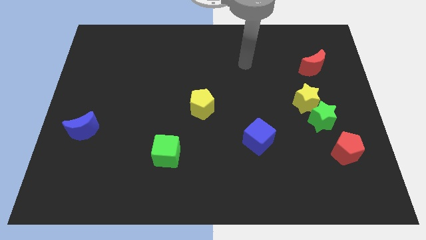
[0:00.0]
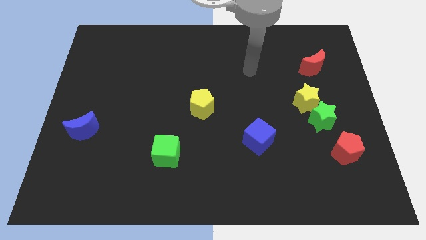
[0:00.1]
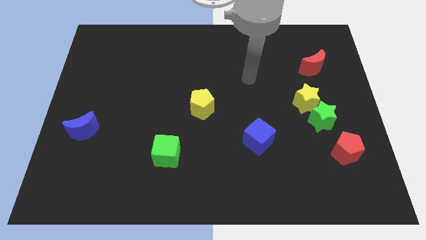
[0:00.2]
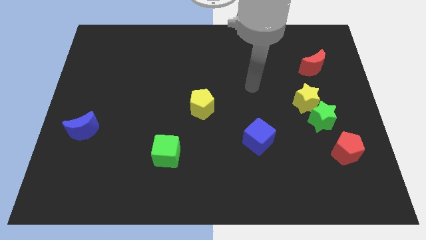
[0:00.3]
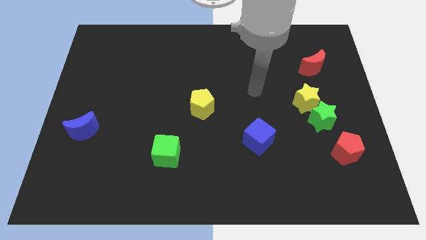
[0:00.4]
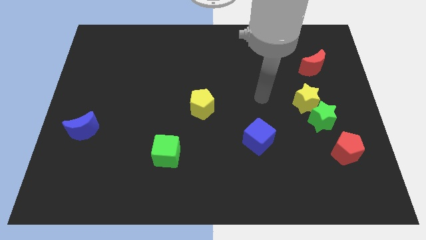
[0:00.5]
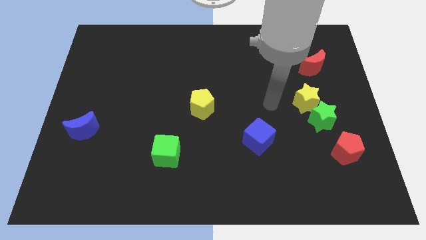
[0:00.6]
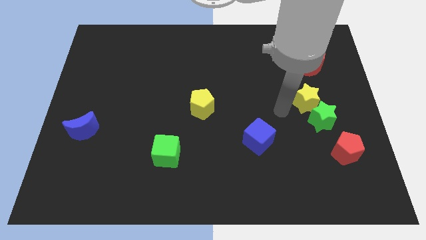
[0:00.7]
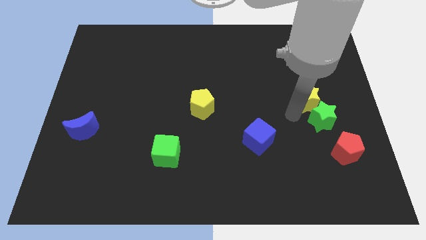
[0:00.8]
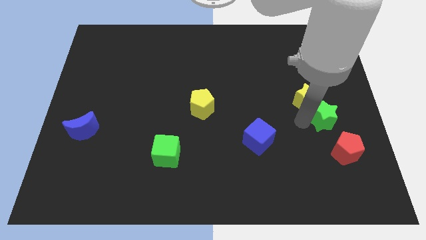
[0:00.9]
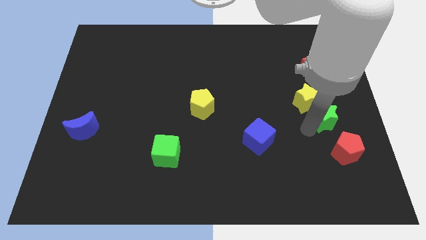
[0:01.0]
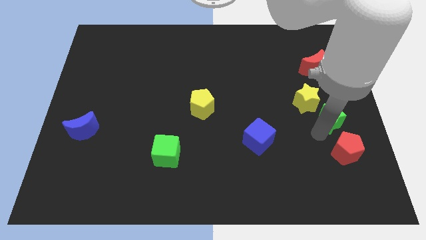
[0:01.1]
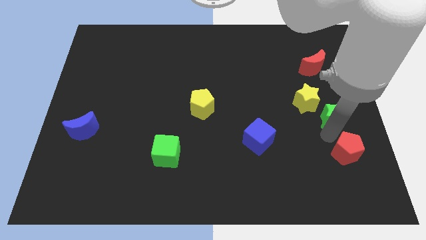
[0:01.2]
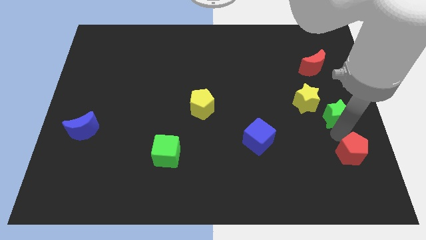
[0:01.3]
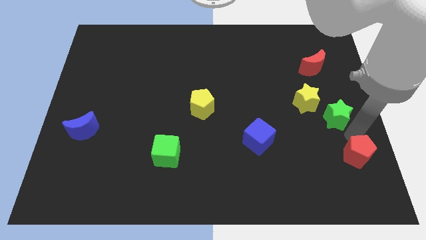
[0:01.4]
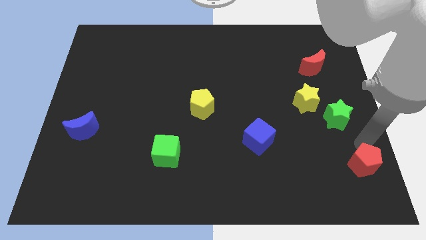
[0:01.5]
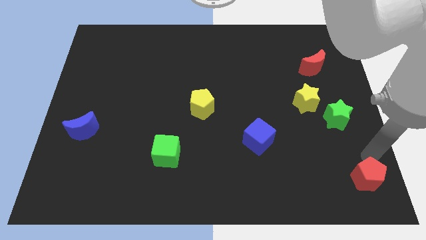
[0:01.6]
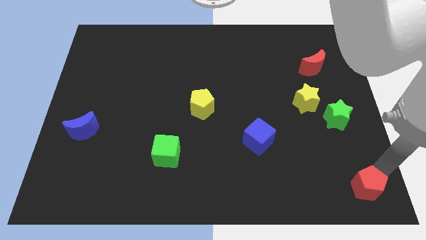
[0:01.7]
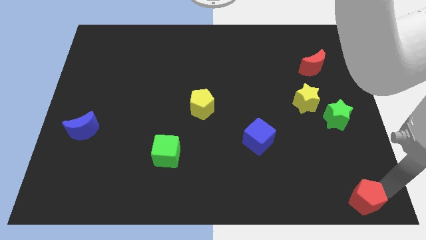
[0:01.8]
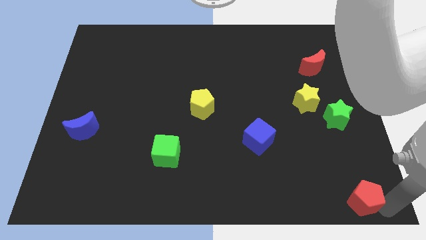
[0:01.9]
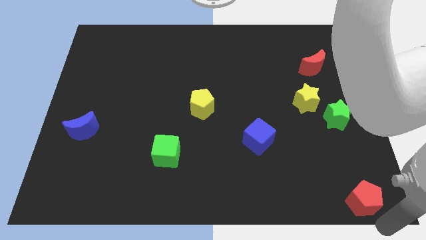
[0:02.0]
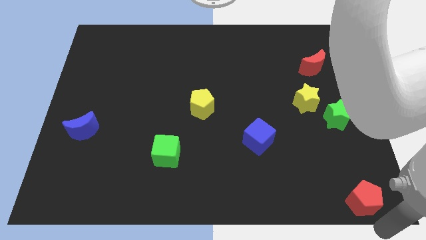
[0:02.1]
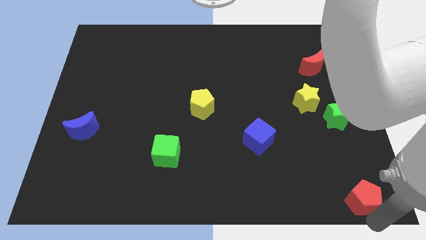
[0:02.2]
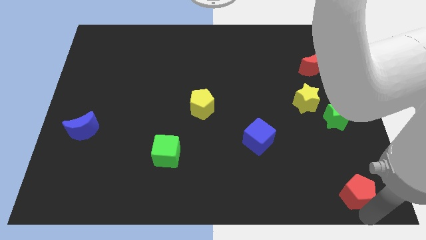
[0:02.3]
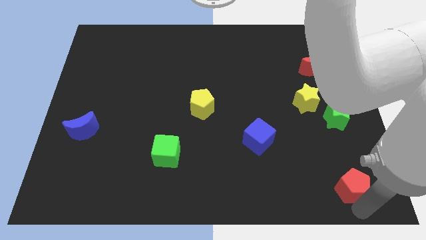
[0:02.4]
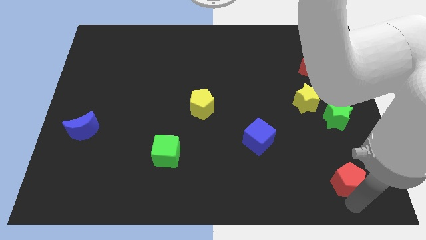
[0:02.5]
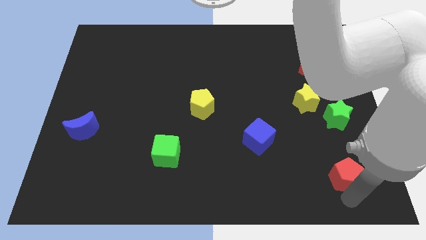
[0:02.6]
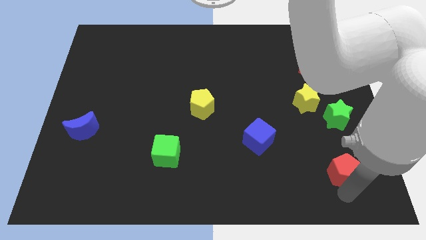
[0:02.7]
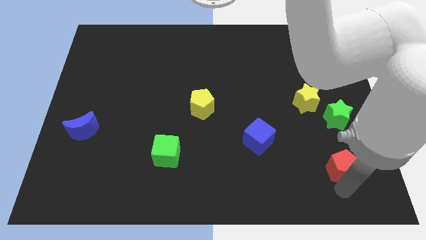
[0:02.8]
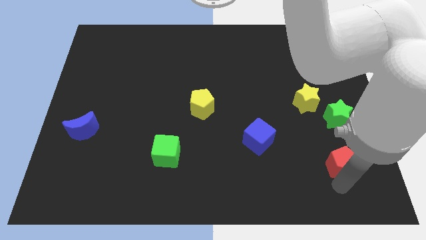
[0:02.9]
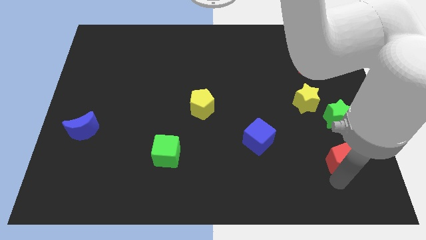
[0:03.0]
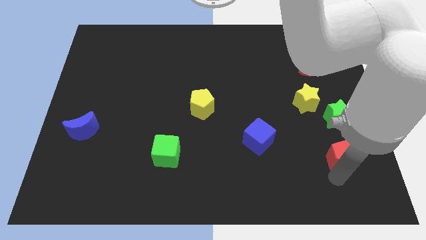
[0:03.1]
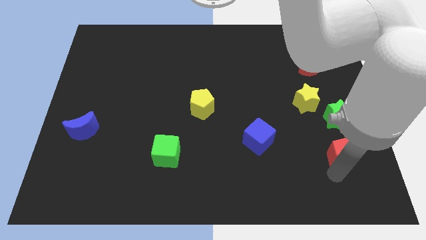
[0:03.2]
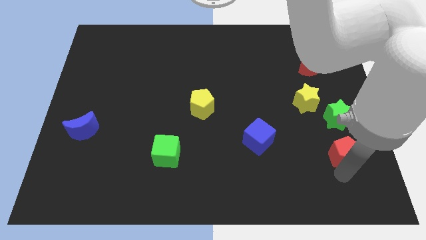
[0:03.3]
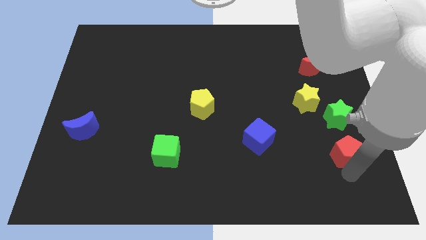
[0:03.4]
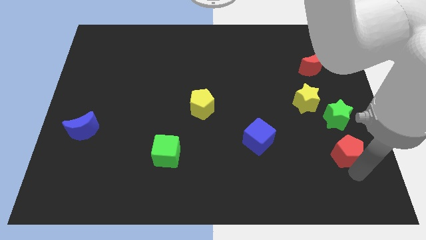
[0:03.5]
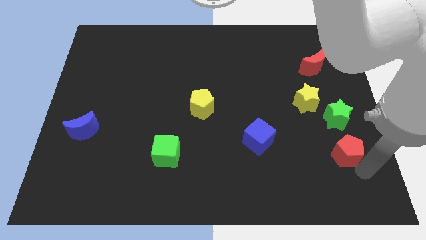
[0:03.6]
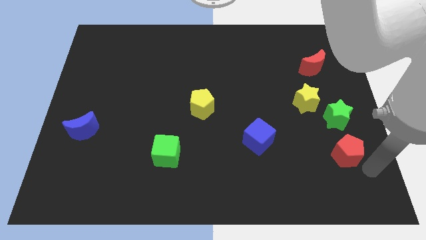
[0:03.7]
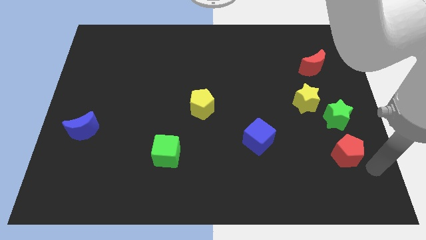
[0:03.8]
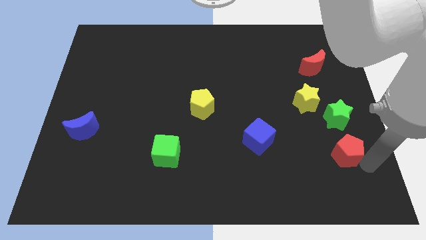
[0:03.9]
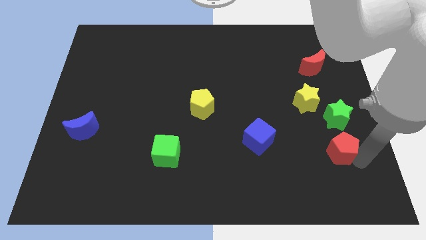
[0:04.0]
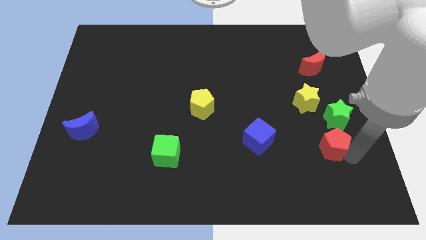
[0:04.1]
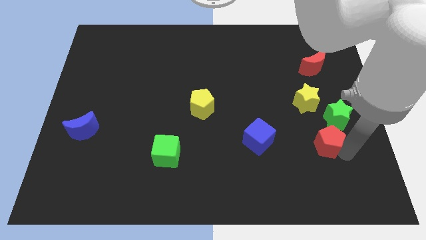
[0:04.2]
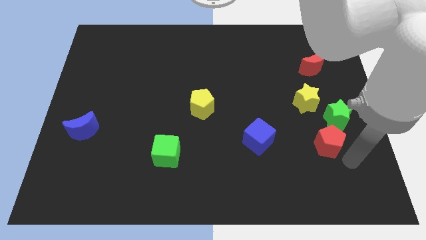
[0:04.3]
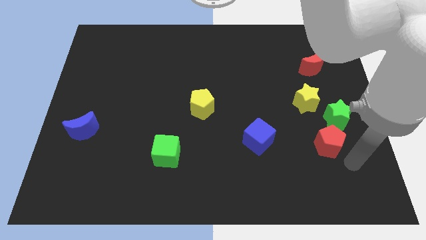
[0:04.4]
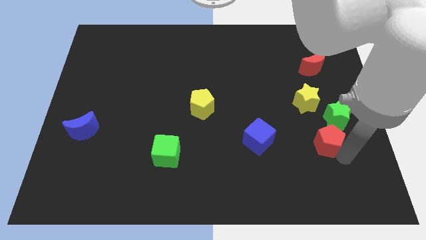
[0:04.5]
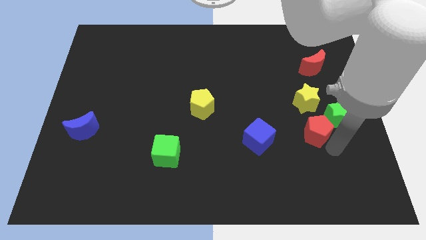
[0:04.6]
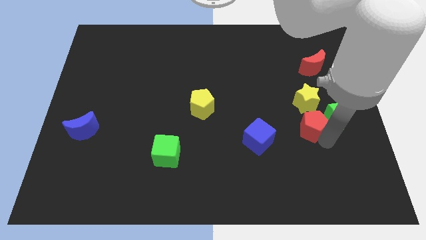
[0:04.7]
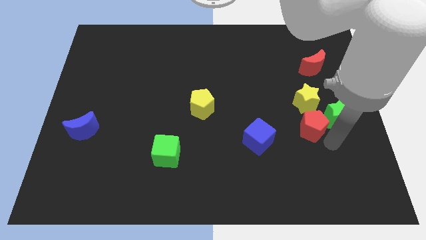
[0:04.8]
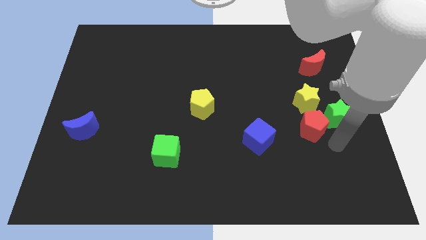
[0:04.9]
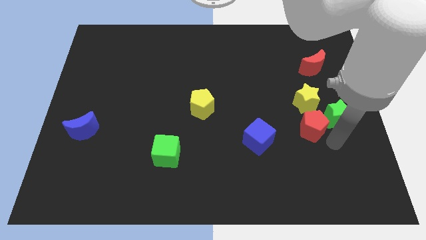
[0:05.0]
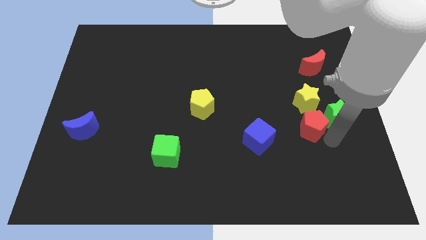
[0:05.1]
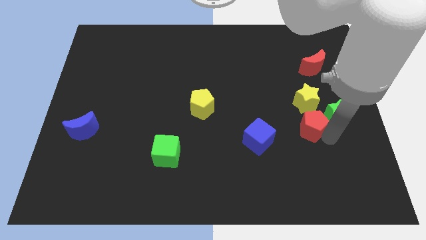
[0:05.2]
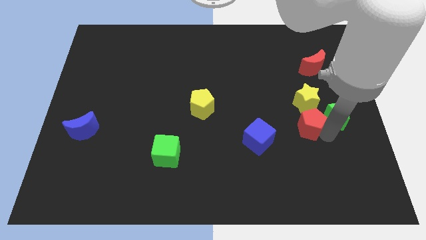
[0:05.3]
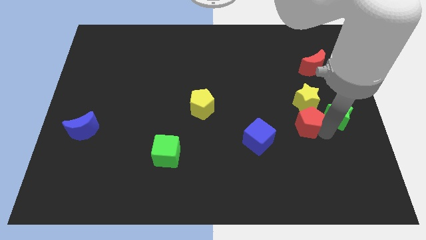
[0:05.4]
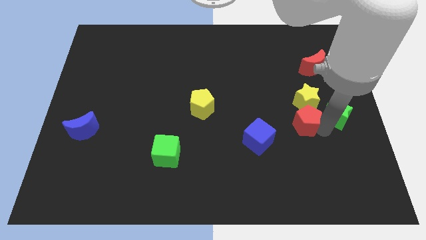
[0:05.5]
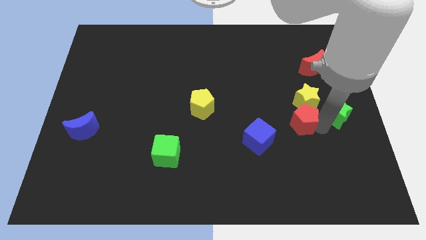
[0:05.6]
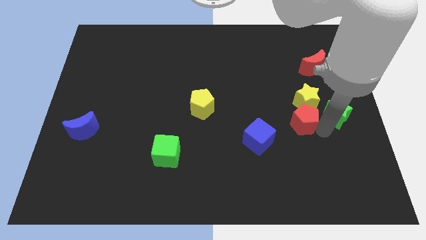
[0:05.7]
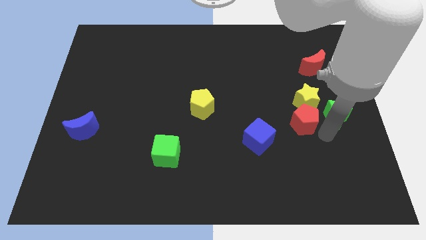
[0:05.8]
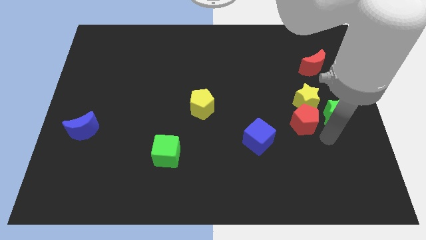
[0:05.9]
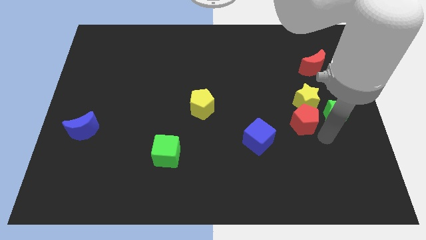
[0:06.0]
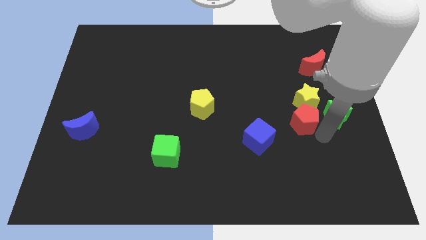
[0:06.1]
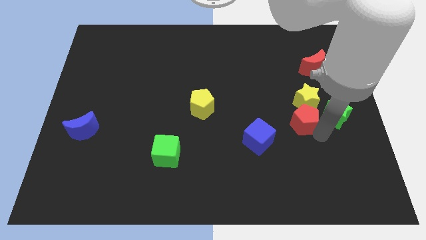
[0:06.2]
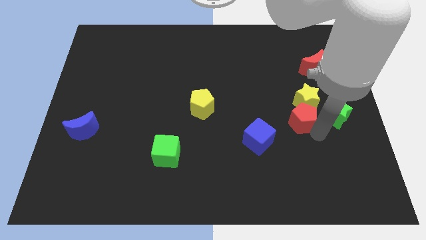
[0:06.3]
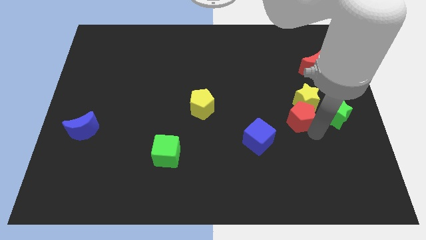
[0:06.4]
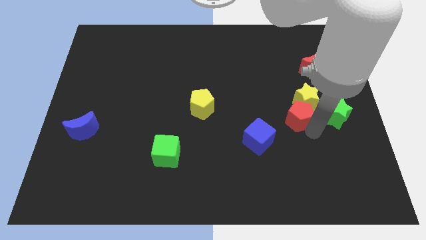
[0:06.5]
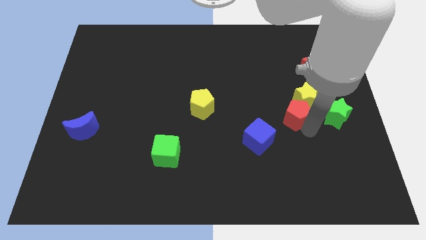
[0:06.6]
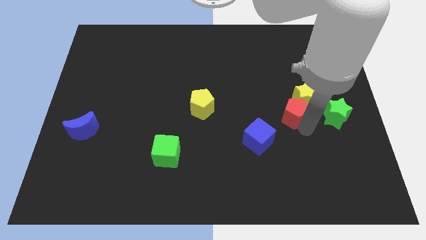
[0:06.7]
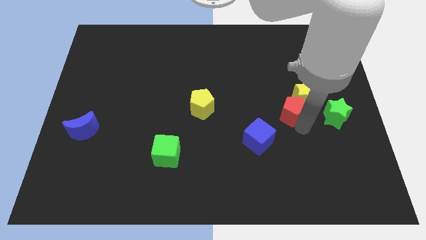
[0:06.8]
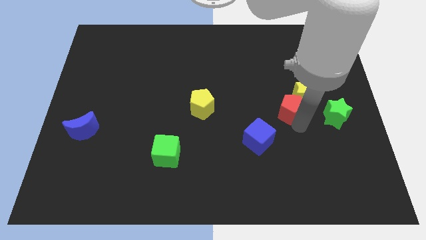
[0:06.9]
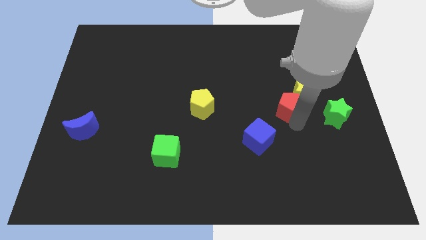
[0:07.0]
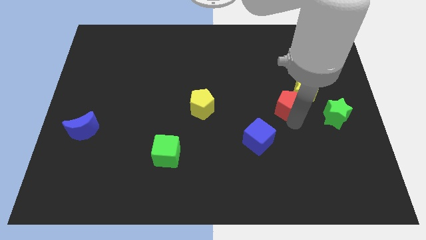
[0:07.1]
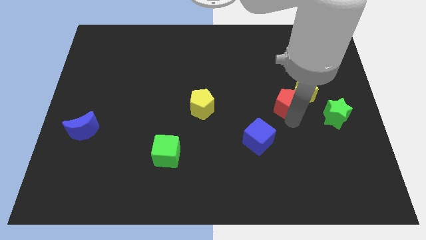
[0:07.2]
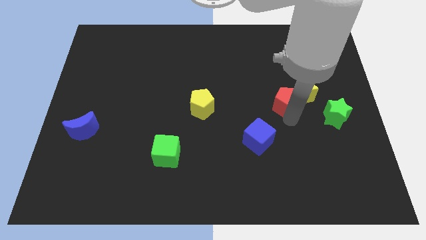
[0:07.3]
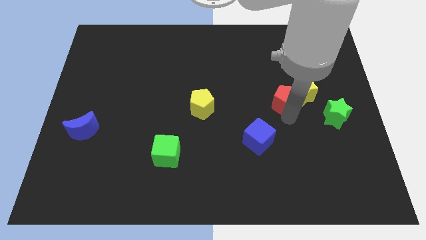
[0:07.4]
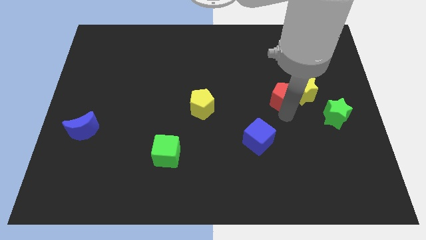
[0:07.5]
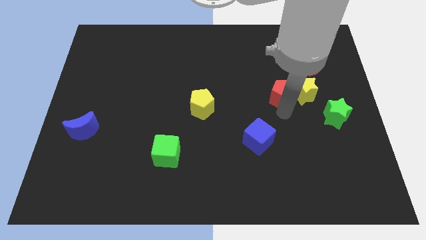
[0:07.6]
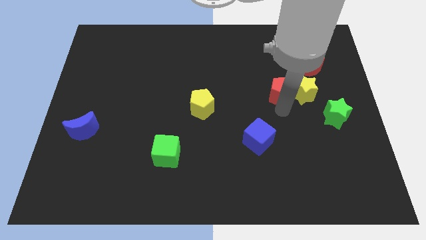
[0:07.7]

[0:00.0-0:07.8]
slide the red pentagon diagonally up and to the left

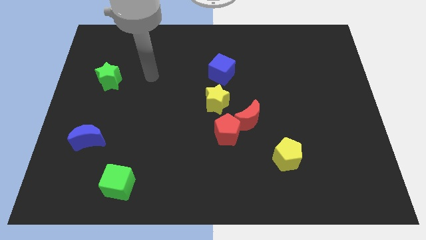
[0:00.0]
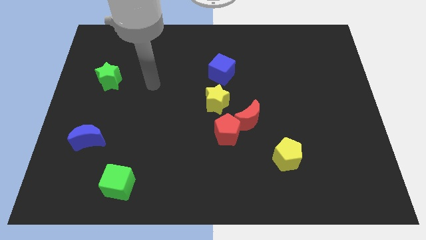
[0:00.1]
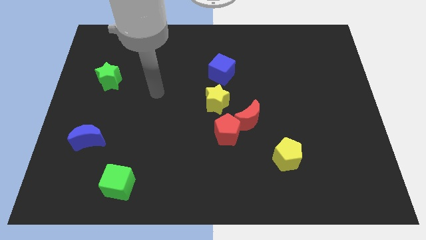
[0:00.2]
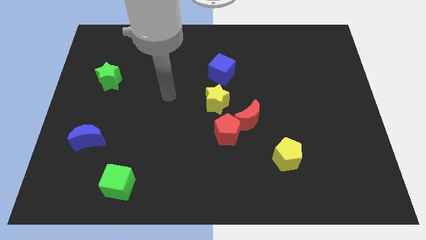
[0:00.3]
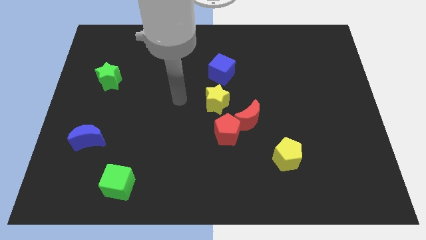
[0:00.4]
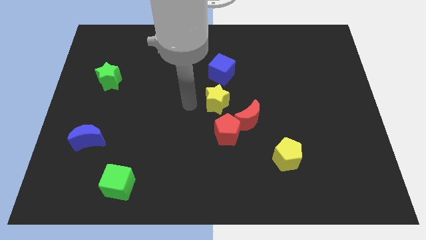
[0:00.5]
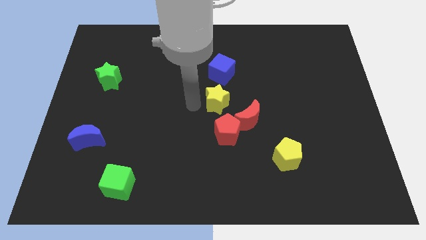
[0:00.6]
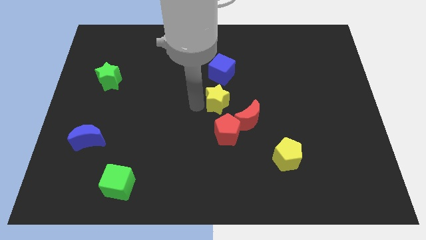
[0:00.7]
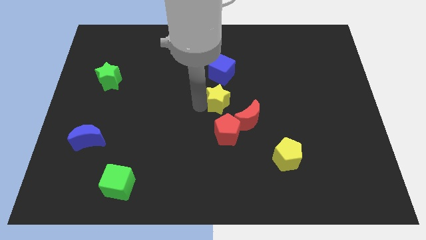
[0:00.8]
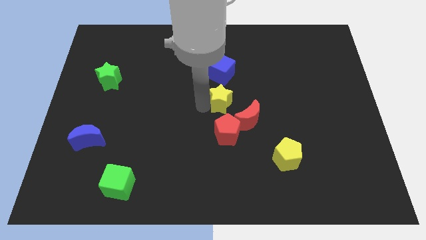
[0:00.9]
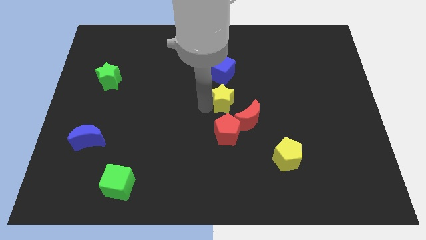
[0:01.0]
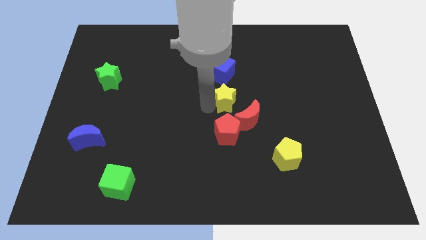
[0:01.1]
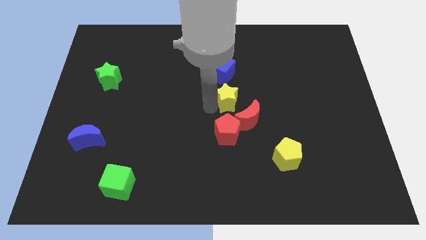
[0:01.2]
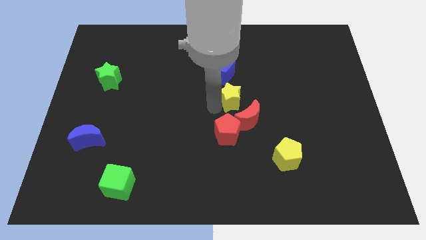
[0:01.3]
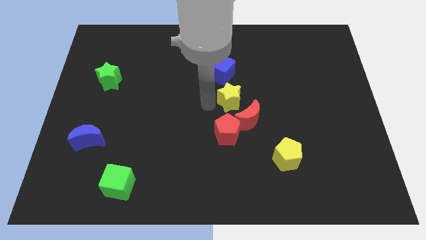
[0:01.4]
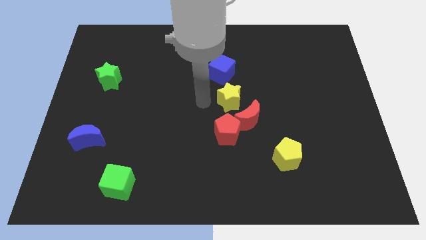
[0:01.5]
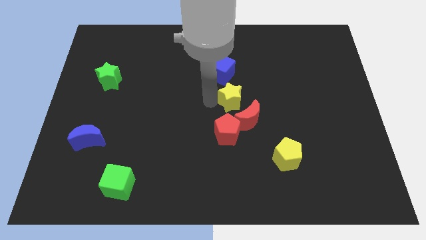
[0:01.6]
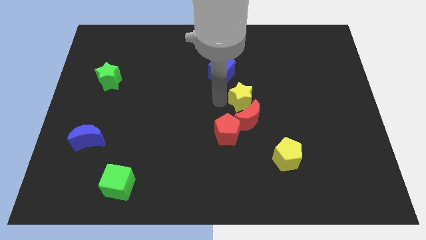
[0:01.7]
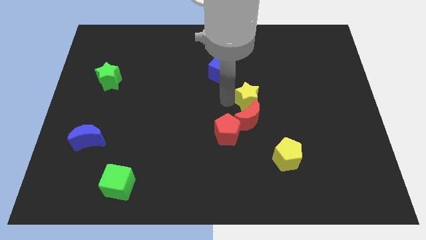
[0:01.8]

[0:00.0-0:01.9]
push the yellow star right a bit
